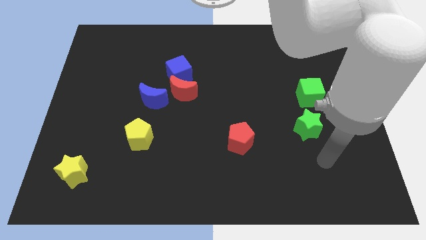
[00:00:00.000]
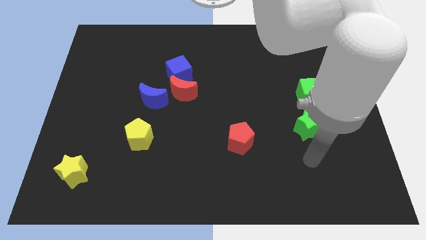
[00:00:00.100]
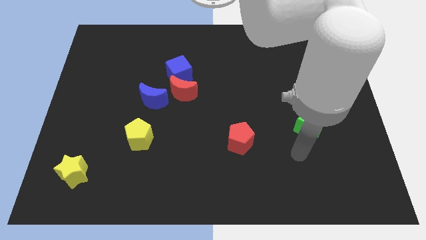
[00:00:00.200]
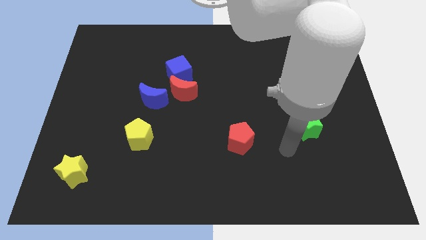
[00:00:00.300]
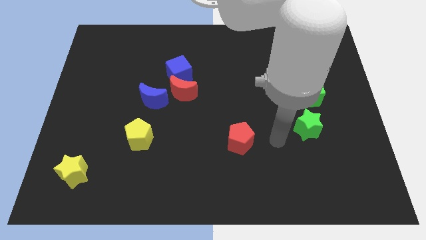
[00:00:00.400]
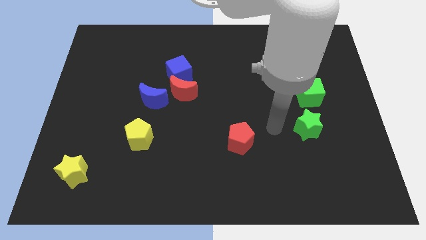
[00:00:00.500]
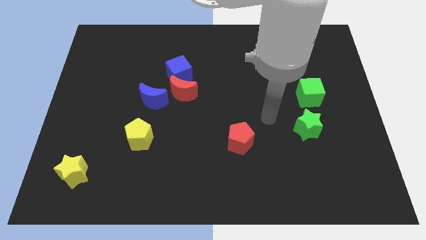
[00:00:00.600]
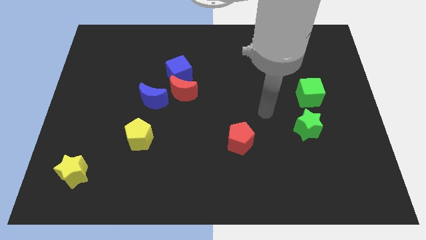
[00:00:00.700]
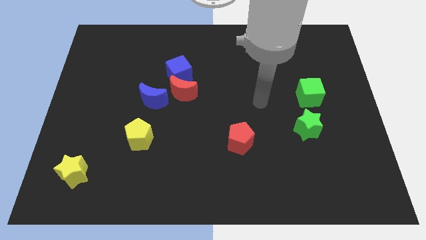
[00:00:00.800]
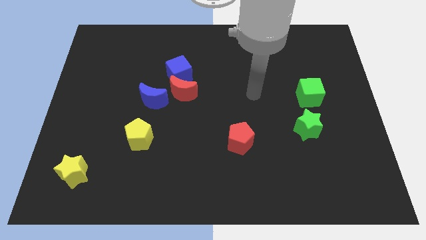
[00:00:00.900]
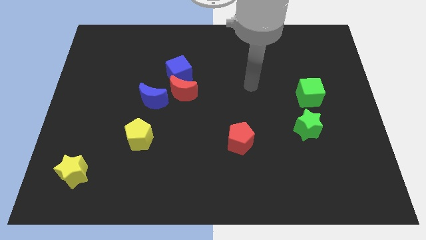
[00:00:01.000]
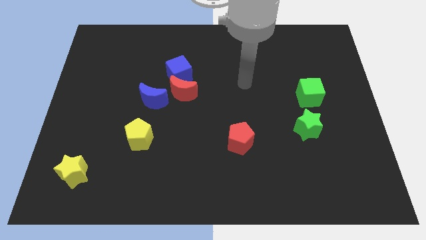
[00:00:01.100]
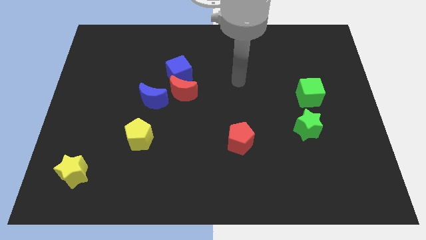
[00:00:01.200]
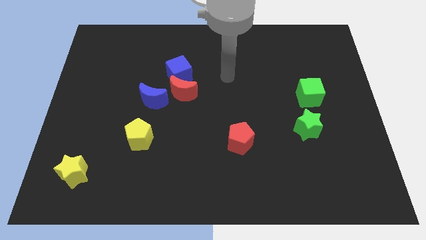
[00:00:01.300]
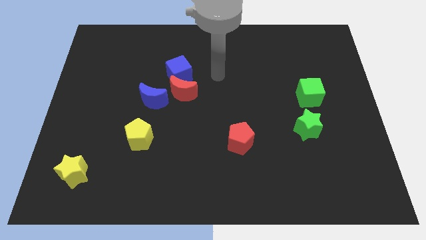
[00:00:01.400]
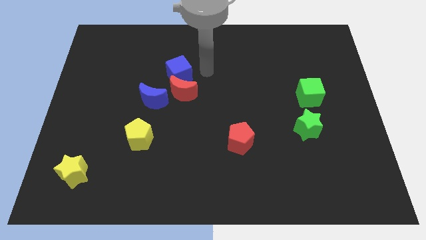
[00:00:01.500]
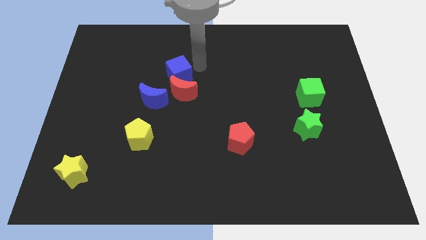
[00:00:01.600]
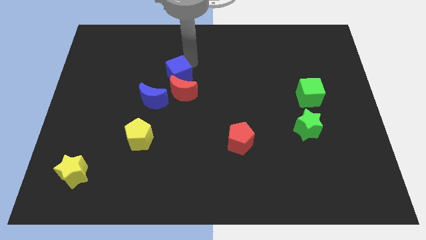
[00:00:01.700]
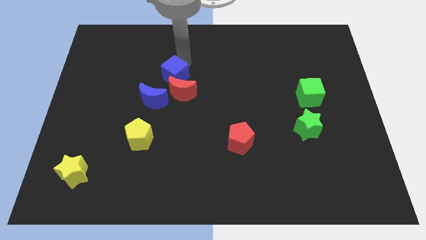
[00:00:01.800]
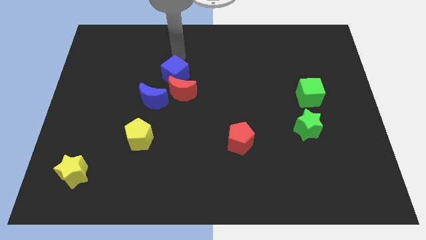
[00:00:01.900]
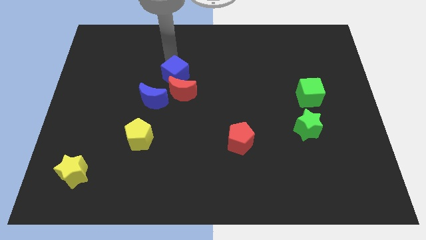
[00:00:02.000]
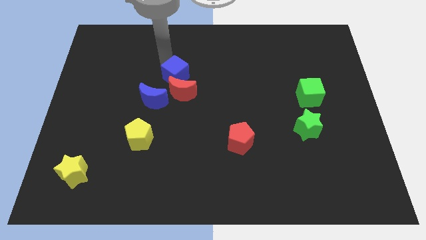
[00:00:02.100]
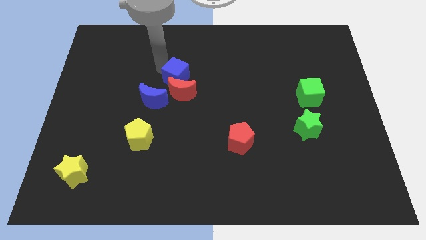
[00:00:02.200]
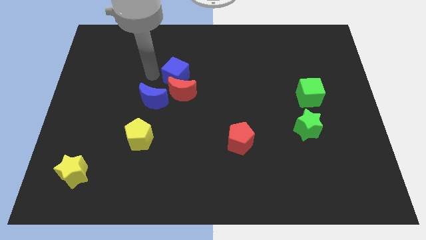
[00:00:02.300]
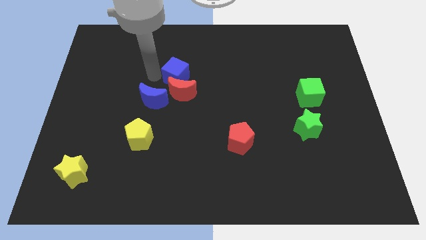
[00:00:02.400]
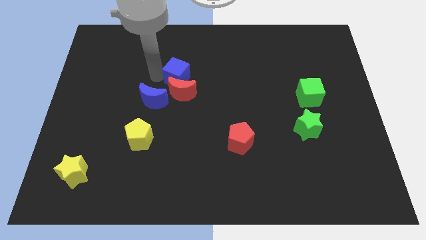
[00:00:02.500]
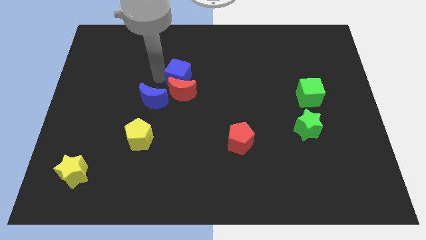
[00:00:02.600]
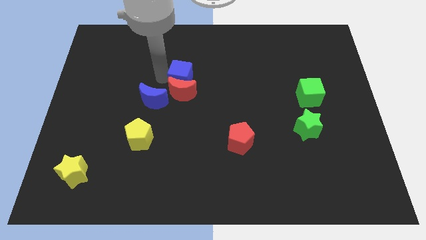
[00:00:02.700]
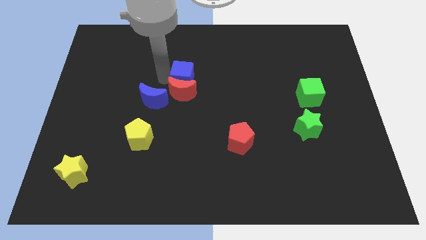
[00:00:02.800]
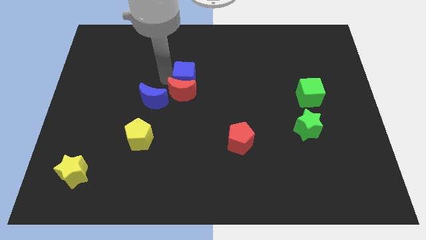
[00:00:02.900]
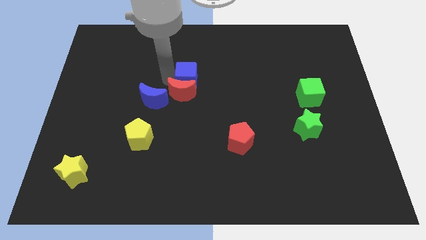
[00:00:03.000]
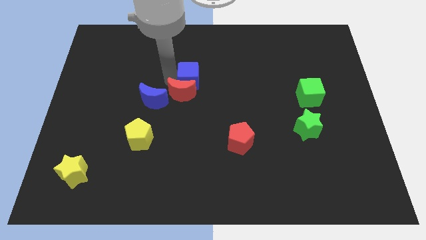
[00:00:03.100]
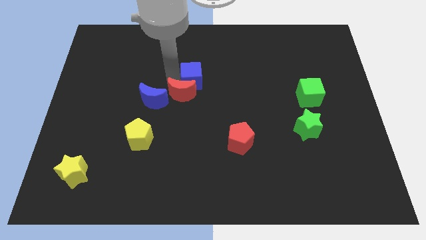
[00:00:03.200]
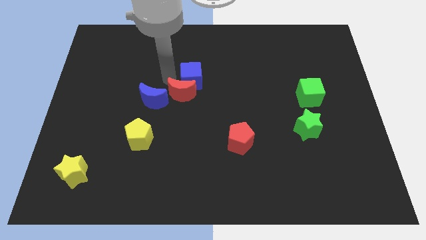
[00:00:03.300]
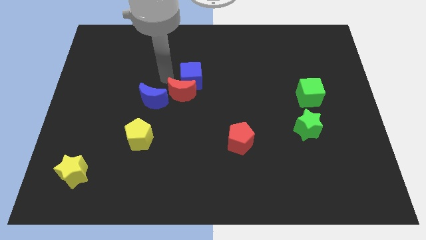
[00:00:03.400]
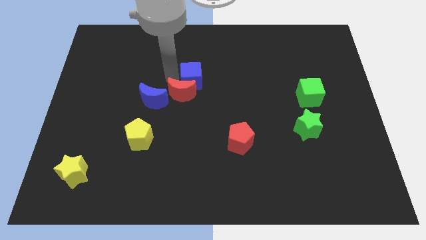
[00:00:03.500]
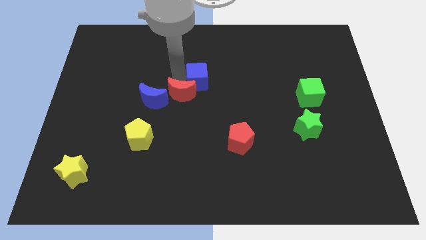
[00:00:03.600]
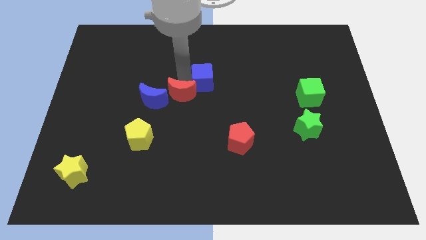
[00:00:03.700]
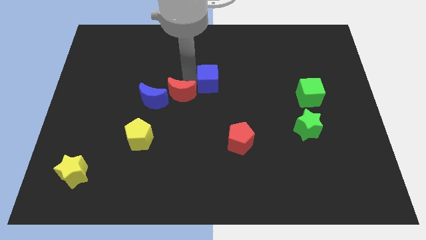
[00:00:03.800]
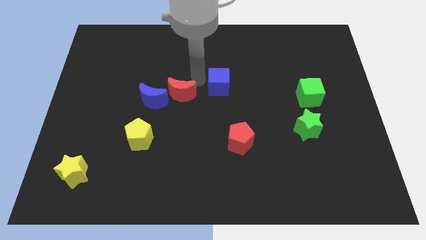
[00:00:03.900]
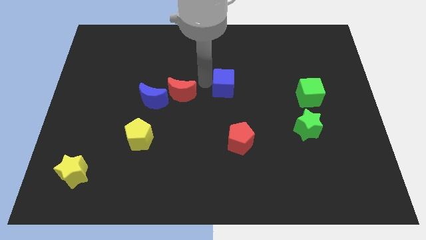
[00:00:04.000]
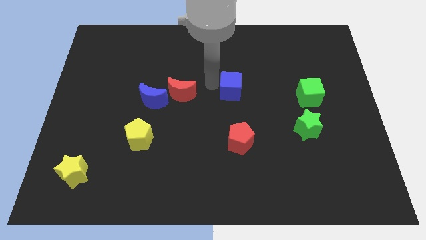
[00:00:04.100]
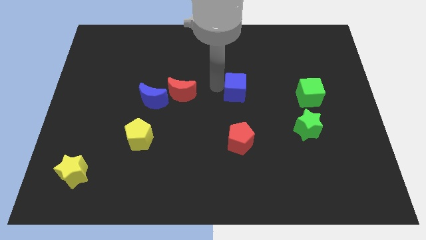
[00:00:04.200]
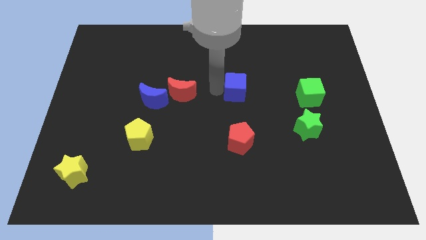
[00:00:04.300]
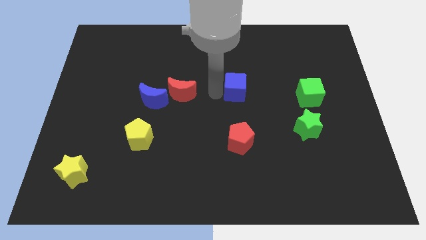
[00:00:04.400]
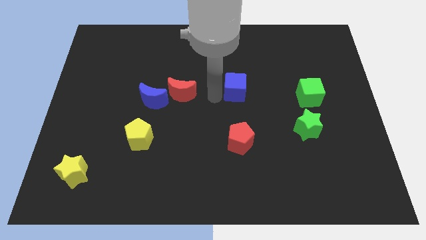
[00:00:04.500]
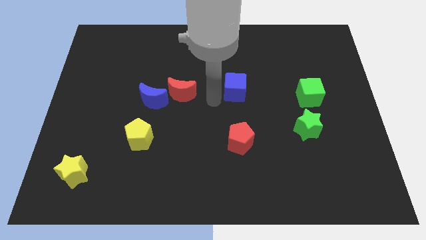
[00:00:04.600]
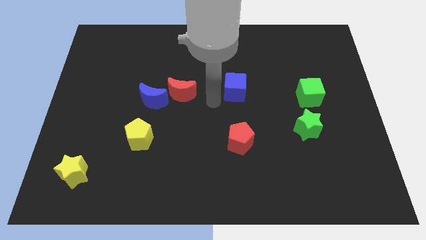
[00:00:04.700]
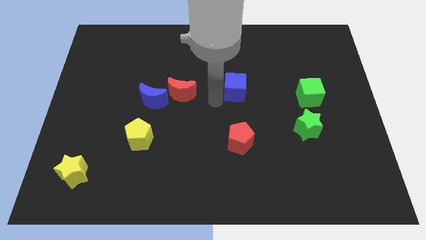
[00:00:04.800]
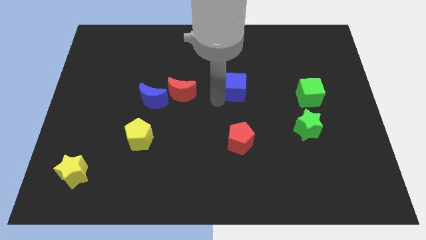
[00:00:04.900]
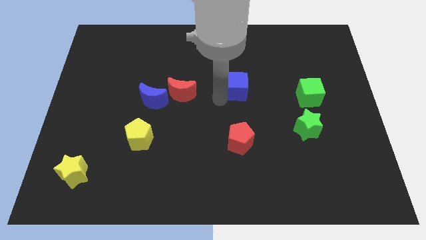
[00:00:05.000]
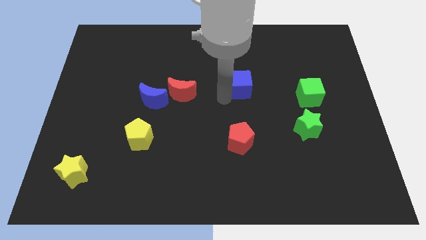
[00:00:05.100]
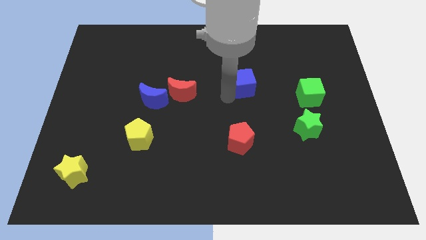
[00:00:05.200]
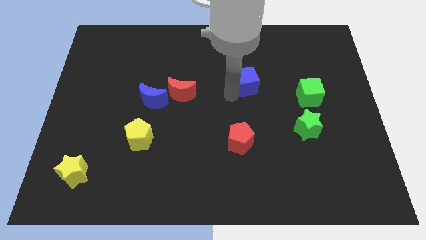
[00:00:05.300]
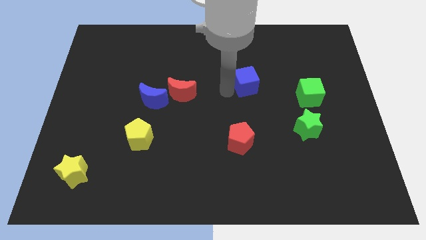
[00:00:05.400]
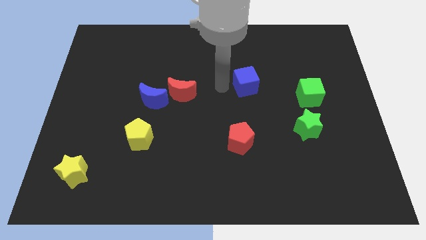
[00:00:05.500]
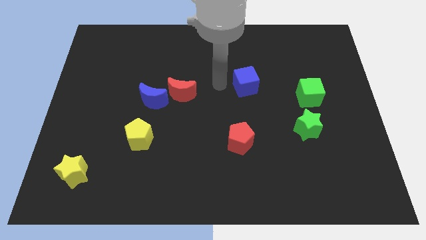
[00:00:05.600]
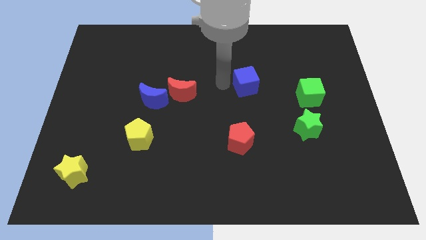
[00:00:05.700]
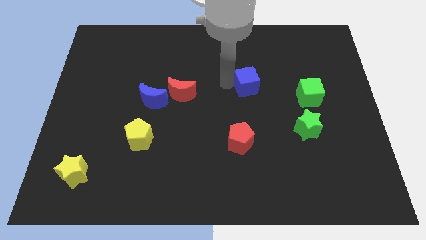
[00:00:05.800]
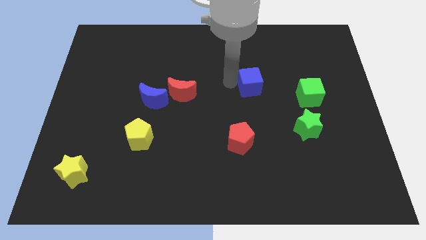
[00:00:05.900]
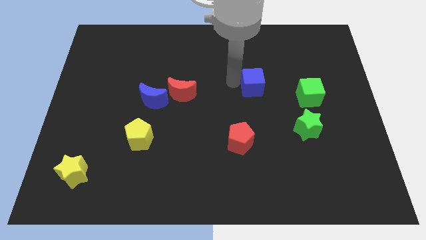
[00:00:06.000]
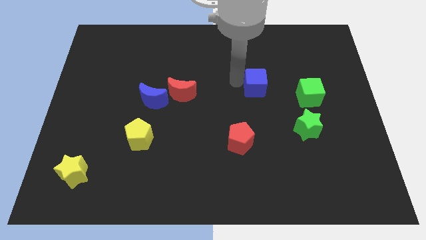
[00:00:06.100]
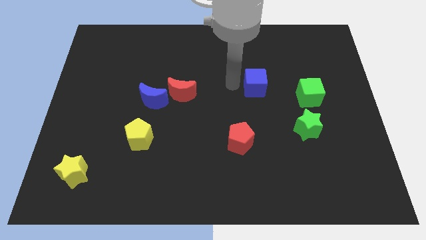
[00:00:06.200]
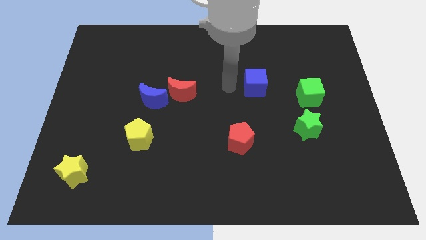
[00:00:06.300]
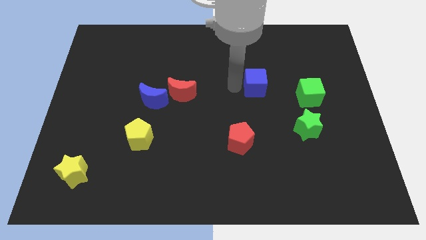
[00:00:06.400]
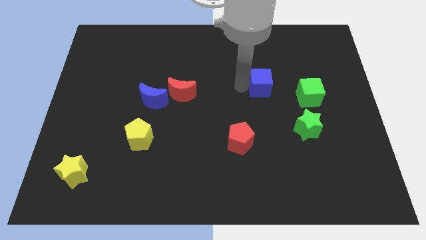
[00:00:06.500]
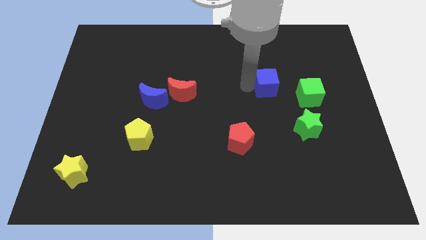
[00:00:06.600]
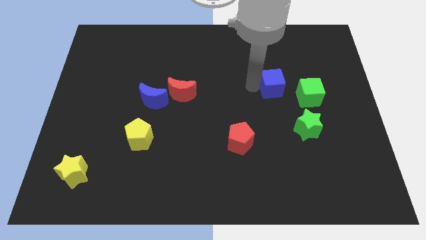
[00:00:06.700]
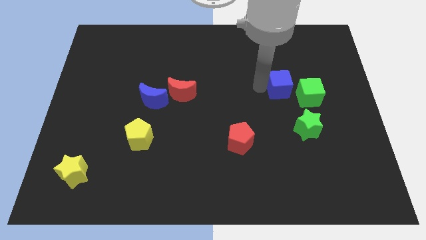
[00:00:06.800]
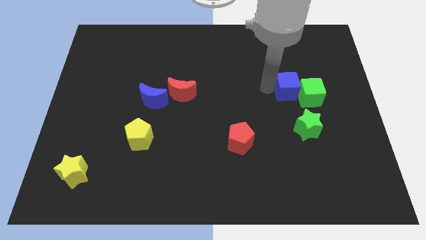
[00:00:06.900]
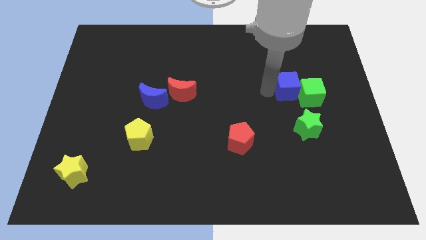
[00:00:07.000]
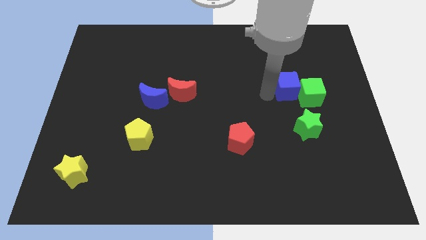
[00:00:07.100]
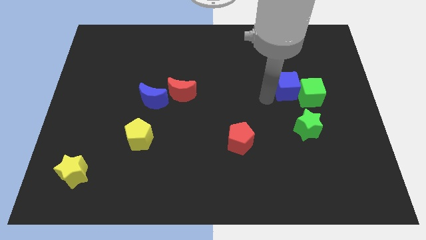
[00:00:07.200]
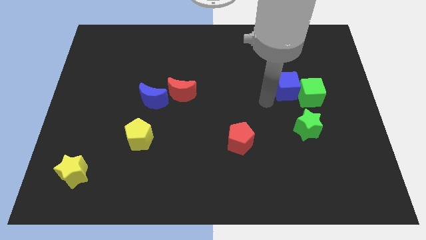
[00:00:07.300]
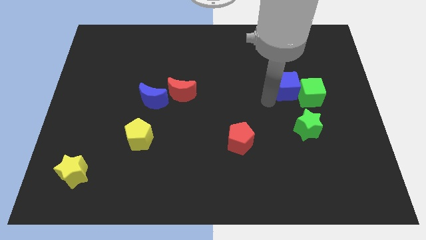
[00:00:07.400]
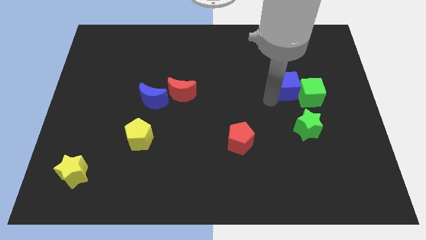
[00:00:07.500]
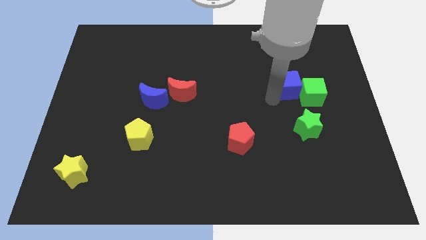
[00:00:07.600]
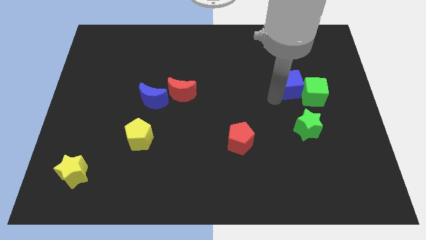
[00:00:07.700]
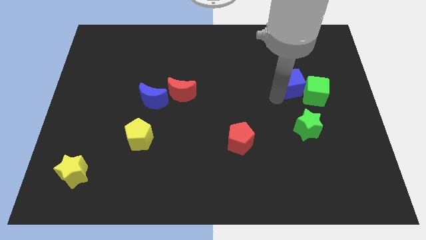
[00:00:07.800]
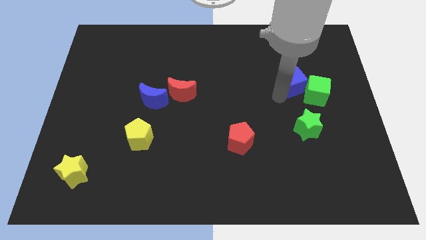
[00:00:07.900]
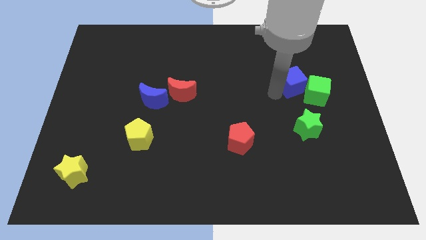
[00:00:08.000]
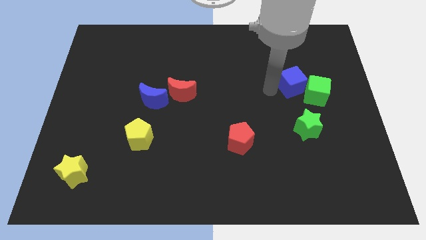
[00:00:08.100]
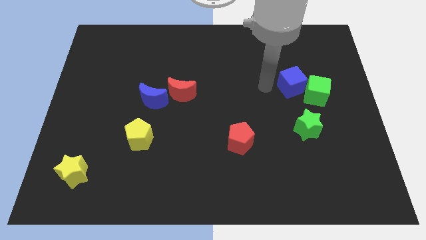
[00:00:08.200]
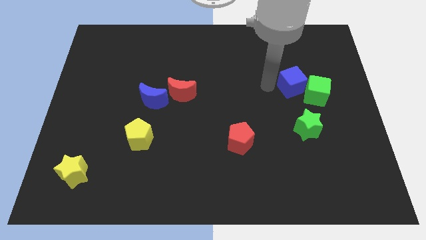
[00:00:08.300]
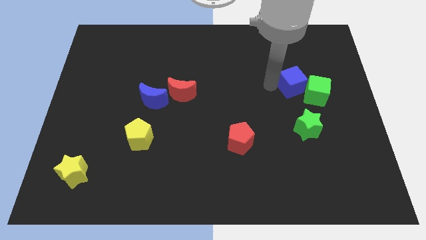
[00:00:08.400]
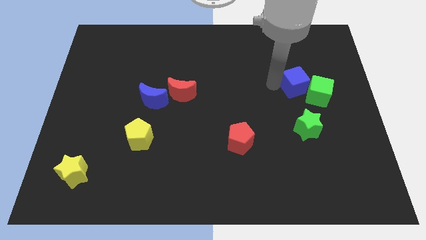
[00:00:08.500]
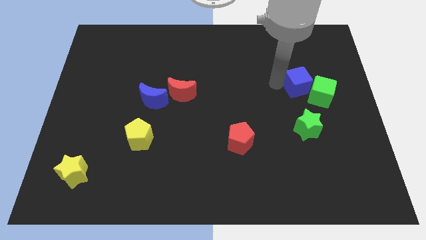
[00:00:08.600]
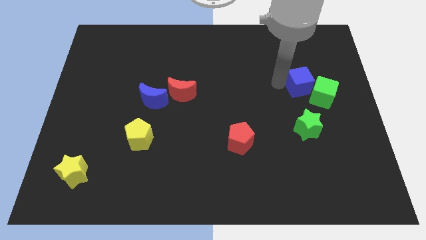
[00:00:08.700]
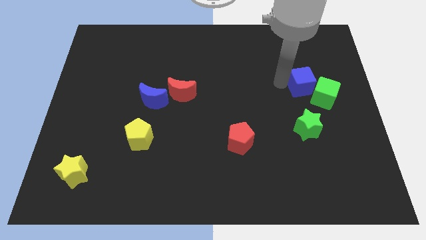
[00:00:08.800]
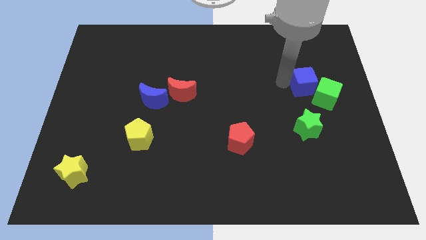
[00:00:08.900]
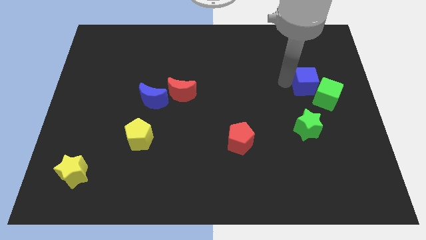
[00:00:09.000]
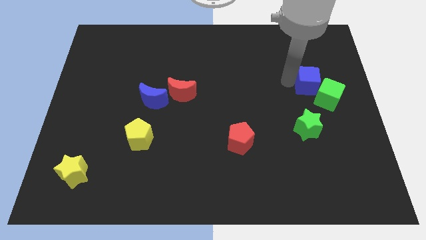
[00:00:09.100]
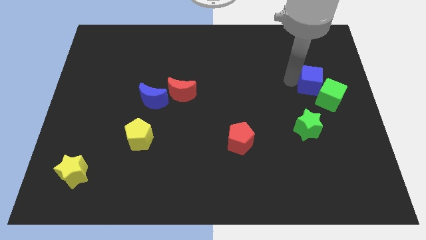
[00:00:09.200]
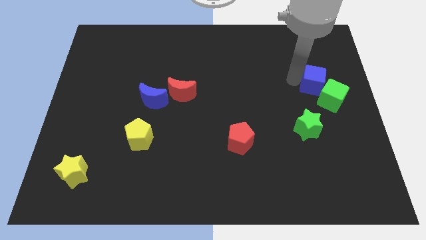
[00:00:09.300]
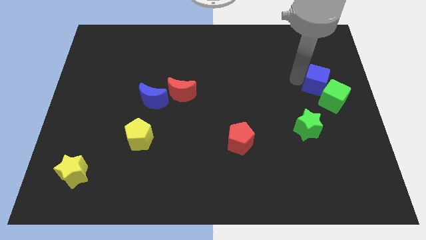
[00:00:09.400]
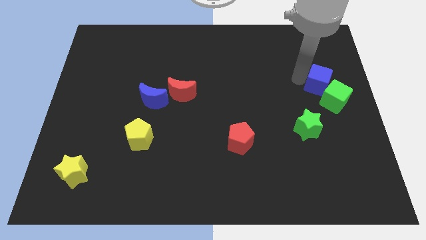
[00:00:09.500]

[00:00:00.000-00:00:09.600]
move the blue cube to the right side
